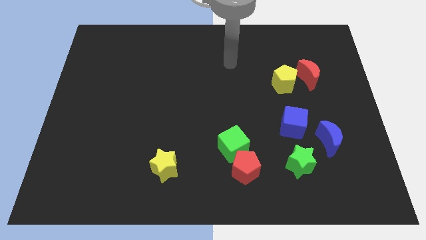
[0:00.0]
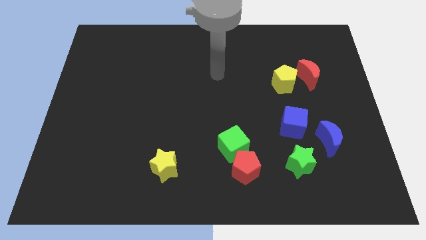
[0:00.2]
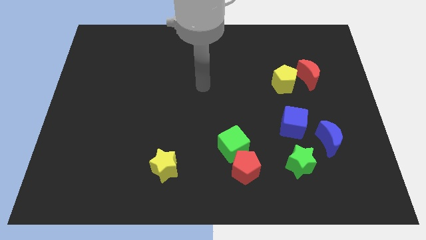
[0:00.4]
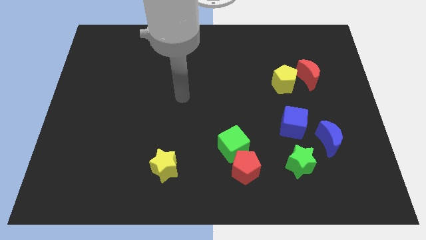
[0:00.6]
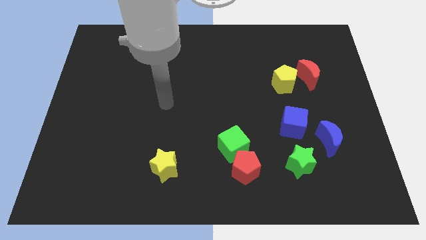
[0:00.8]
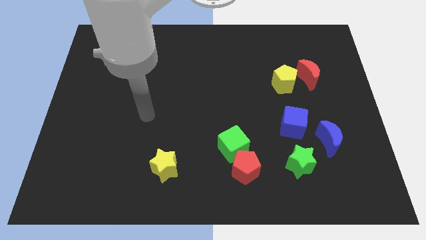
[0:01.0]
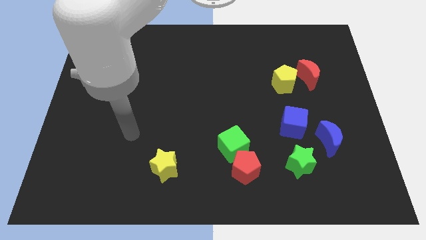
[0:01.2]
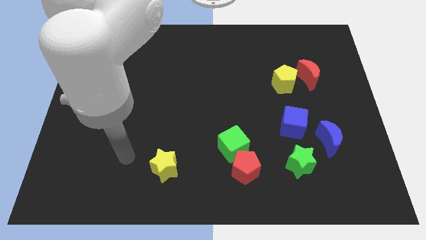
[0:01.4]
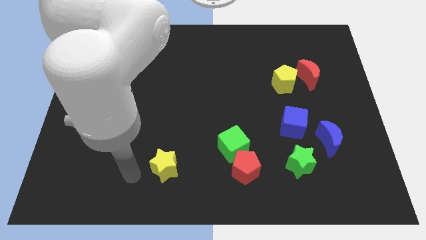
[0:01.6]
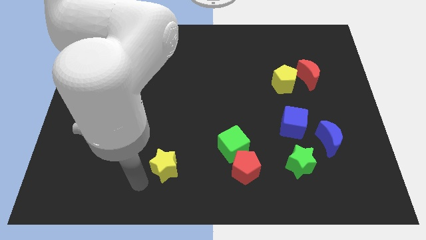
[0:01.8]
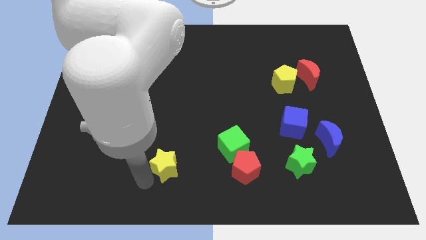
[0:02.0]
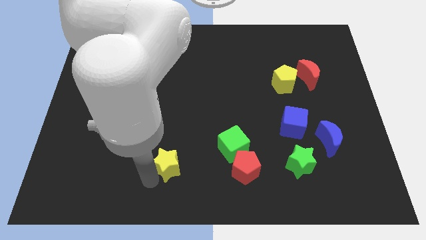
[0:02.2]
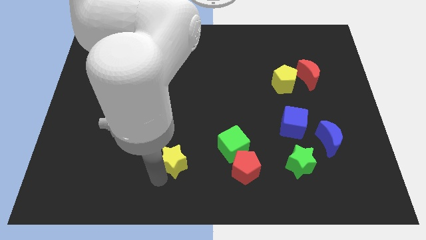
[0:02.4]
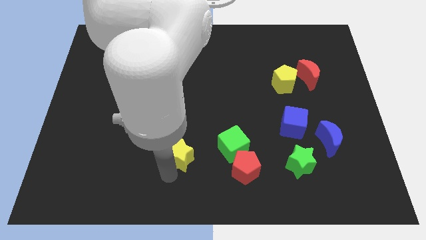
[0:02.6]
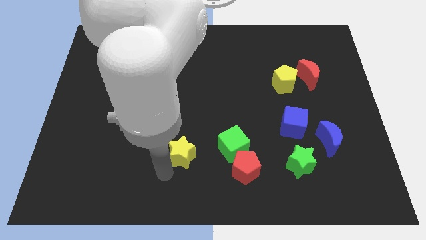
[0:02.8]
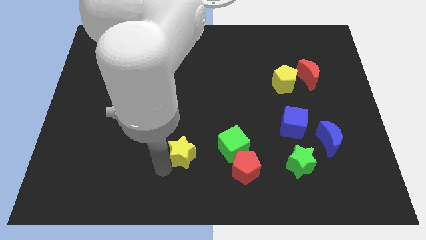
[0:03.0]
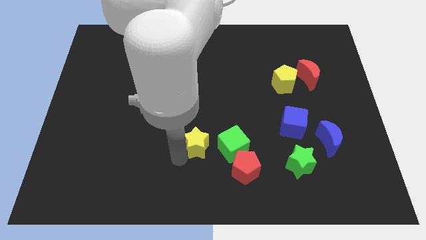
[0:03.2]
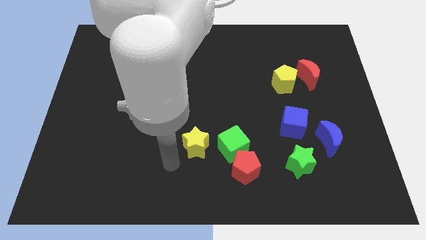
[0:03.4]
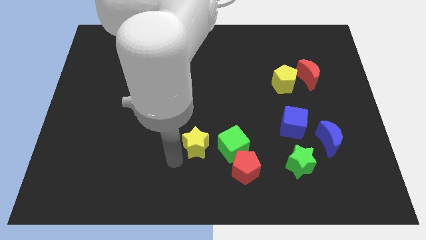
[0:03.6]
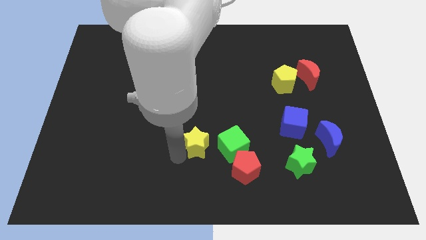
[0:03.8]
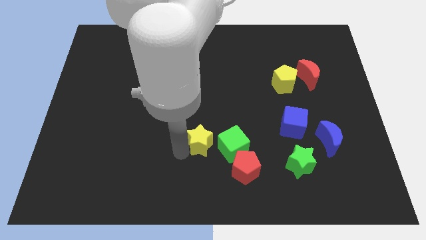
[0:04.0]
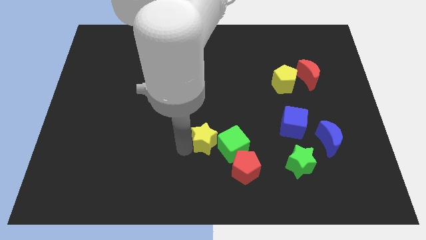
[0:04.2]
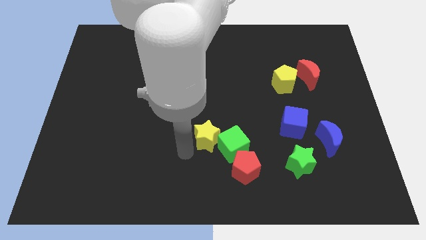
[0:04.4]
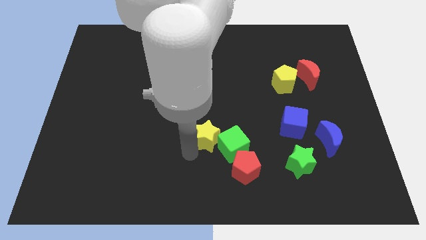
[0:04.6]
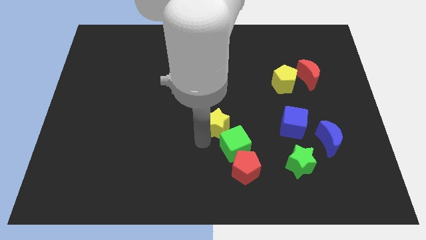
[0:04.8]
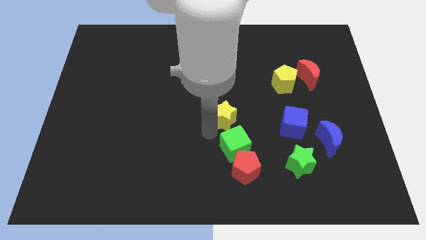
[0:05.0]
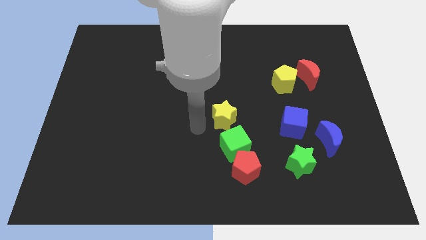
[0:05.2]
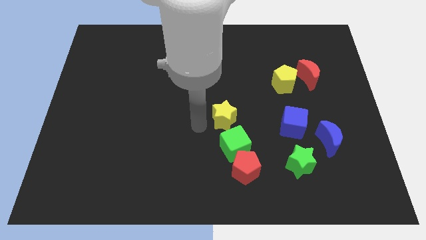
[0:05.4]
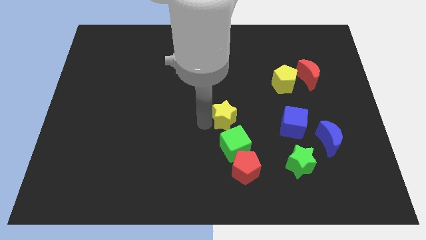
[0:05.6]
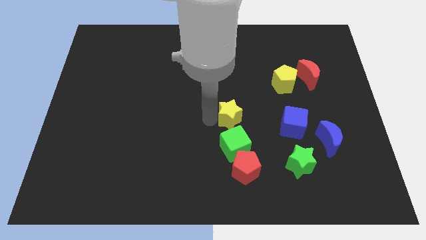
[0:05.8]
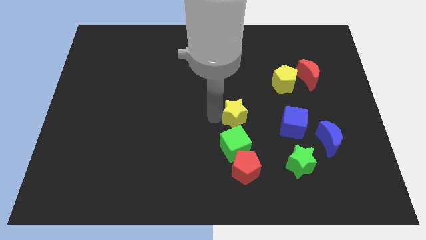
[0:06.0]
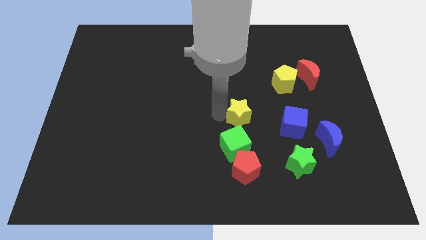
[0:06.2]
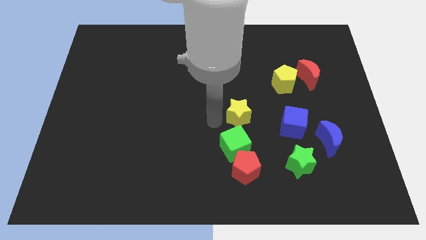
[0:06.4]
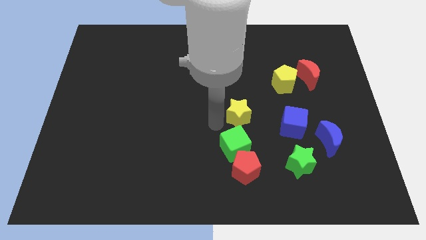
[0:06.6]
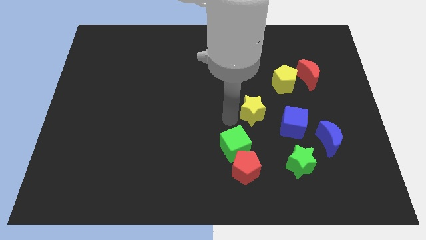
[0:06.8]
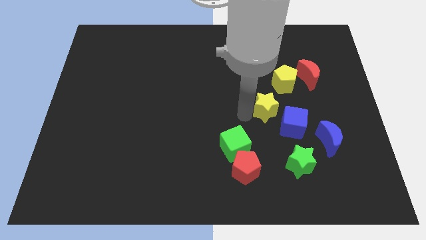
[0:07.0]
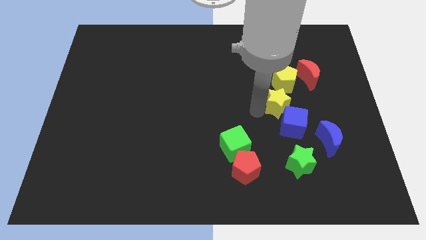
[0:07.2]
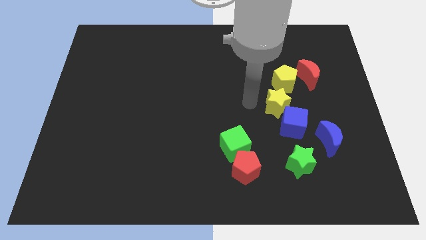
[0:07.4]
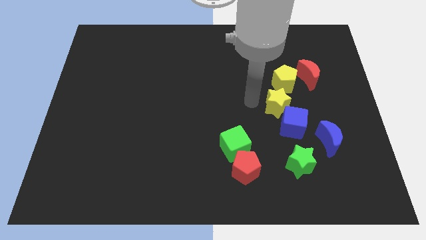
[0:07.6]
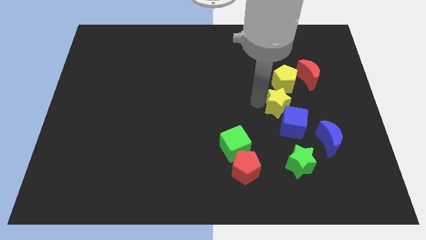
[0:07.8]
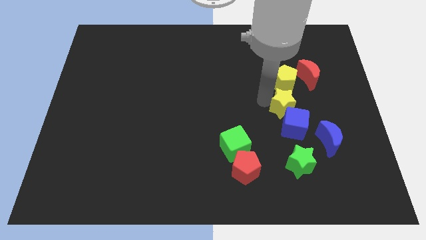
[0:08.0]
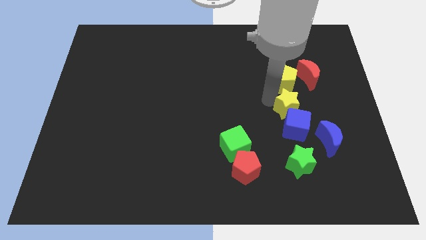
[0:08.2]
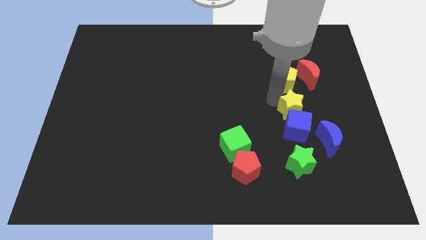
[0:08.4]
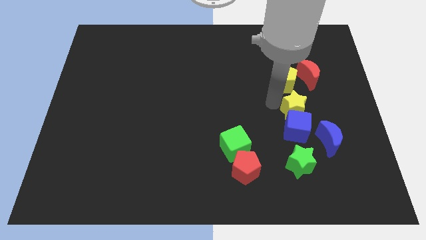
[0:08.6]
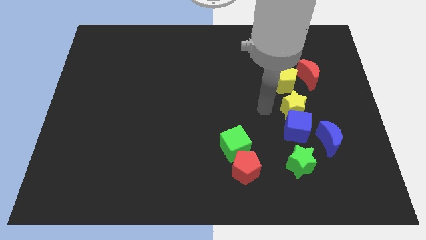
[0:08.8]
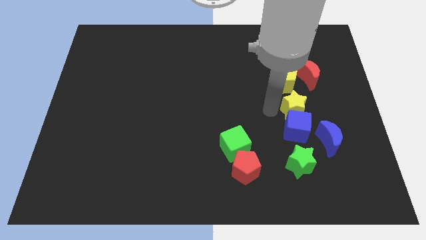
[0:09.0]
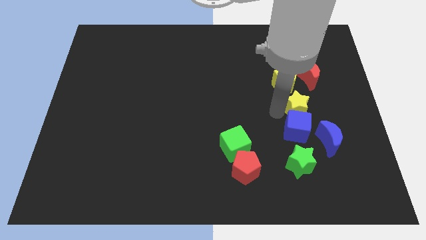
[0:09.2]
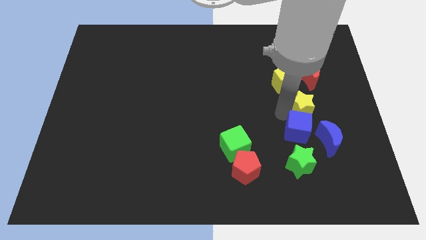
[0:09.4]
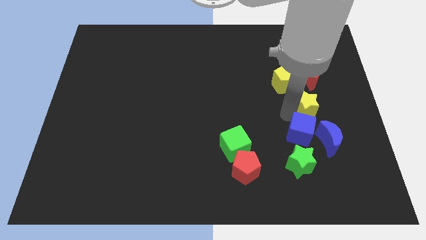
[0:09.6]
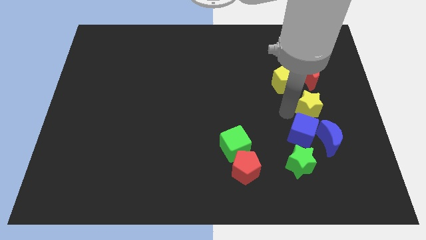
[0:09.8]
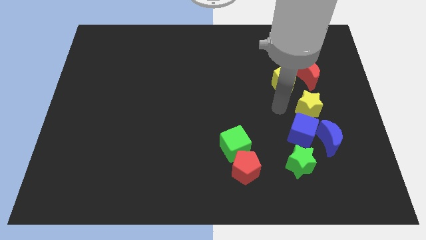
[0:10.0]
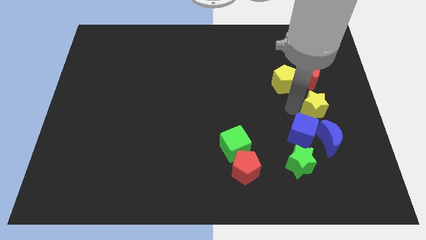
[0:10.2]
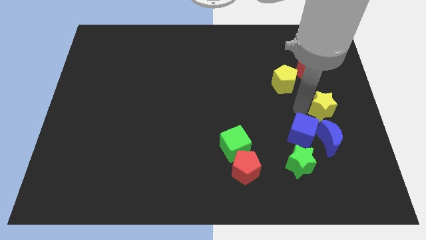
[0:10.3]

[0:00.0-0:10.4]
move the yellow star to the center right
